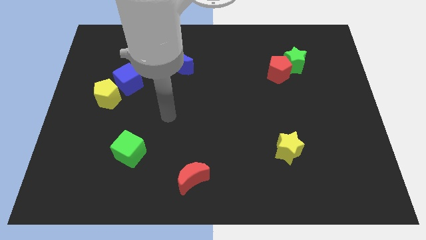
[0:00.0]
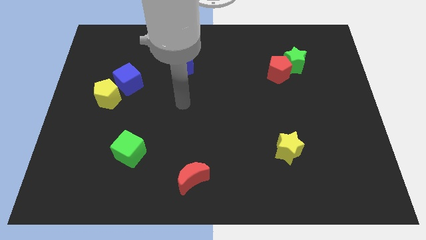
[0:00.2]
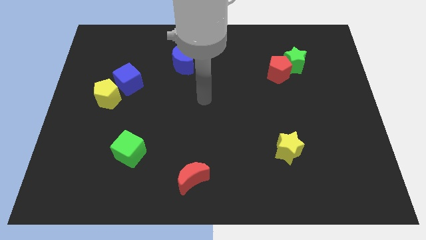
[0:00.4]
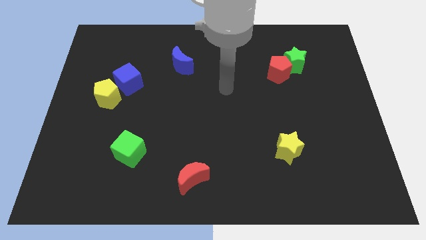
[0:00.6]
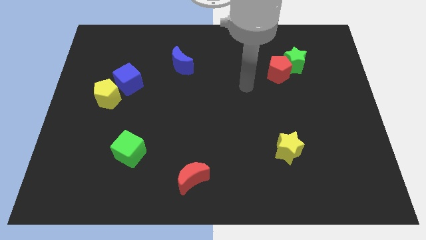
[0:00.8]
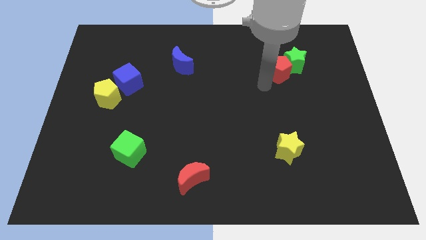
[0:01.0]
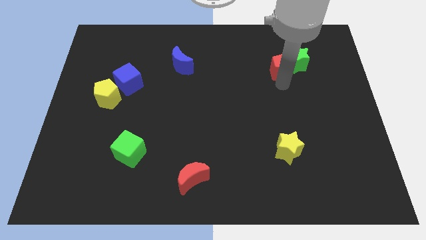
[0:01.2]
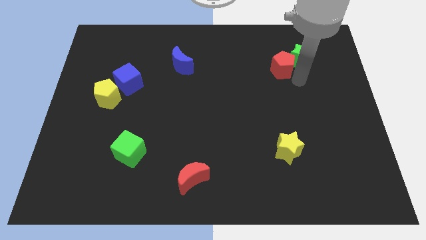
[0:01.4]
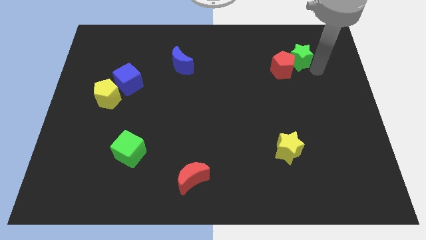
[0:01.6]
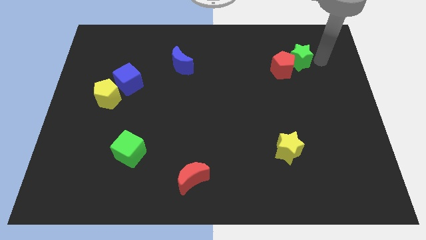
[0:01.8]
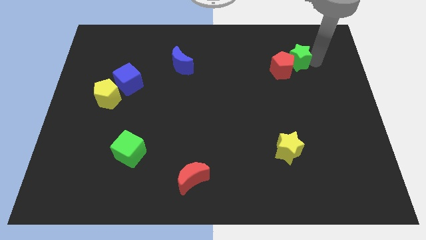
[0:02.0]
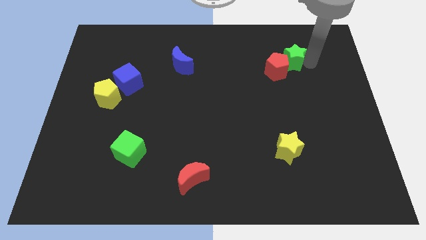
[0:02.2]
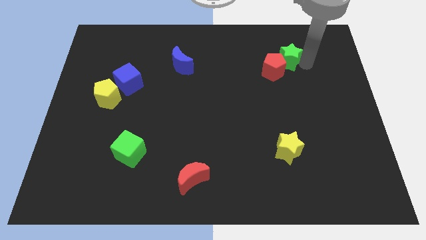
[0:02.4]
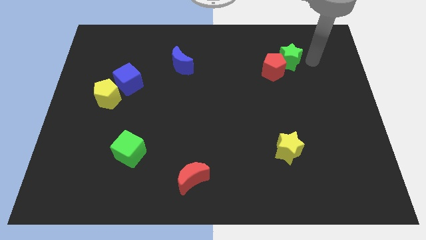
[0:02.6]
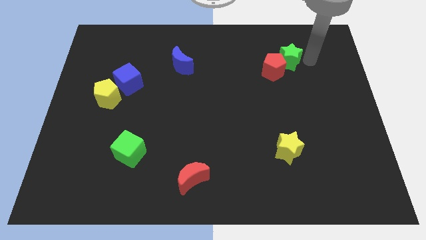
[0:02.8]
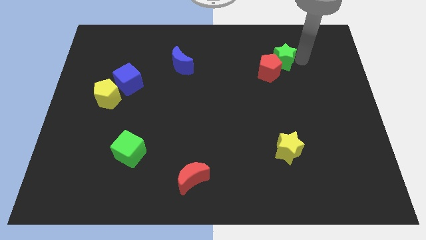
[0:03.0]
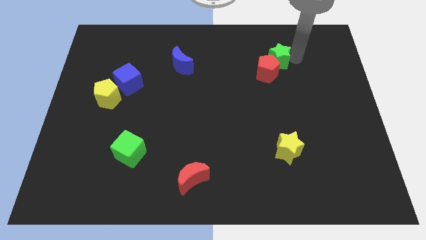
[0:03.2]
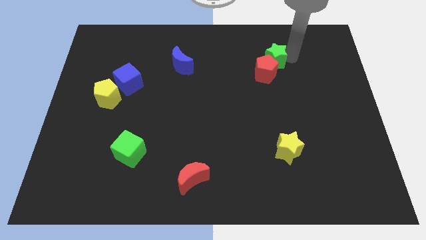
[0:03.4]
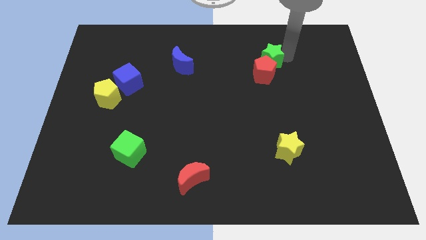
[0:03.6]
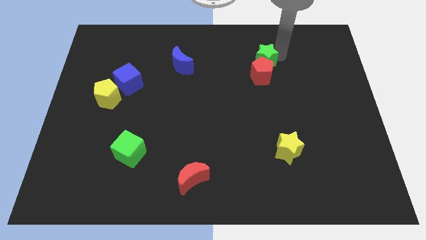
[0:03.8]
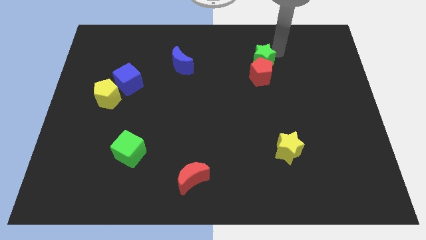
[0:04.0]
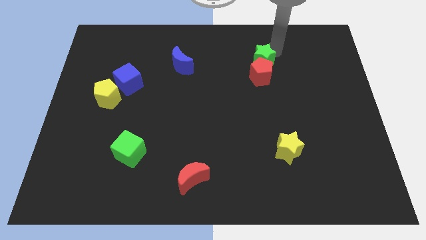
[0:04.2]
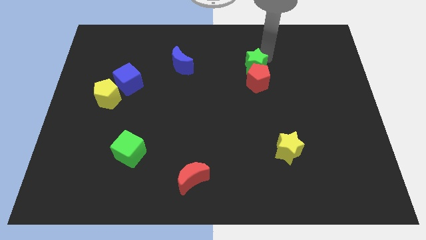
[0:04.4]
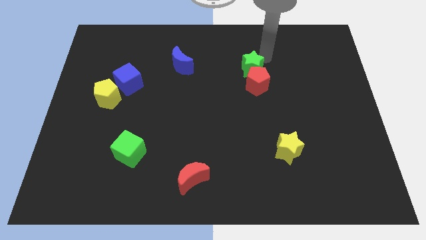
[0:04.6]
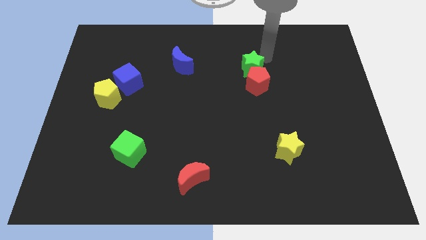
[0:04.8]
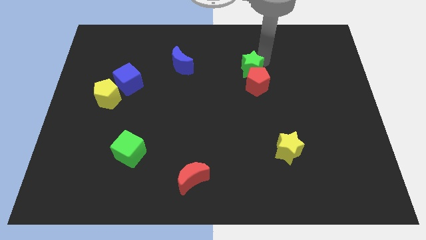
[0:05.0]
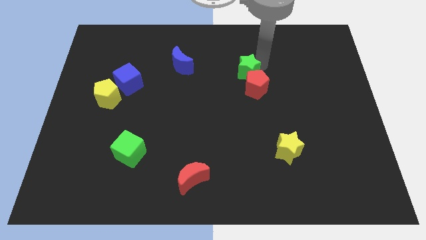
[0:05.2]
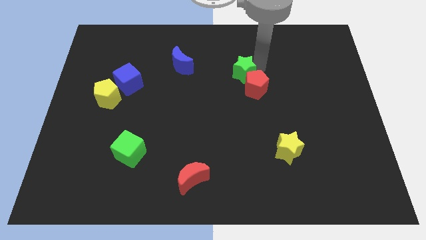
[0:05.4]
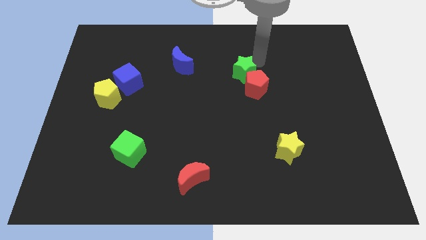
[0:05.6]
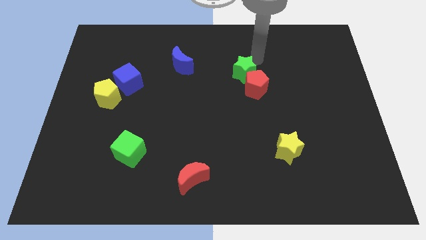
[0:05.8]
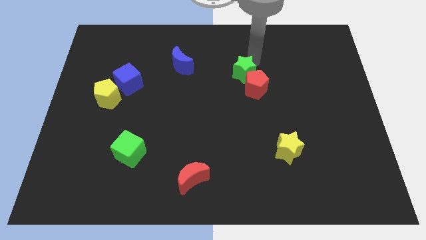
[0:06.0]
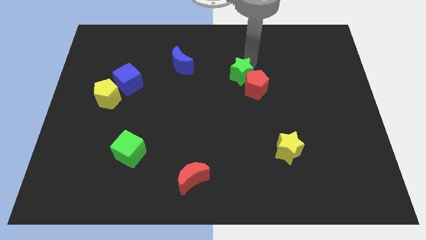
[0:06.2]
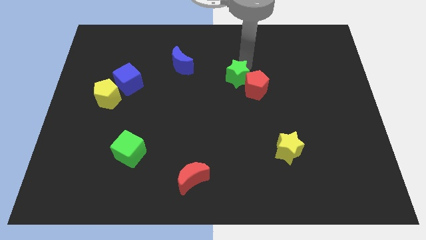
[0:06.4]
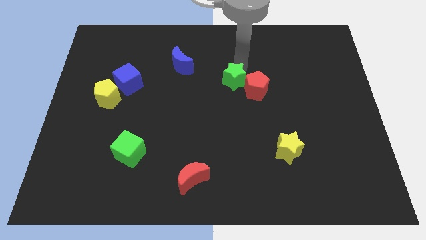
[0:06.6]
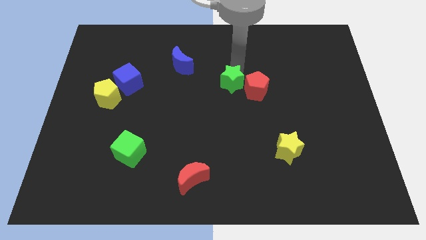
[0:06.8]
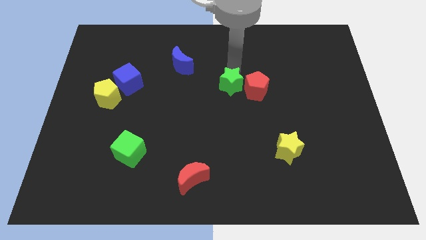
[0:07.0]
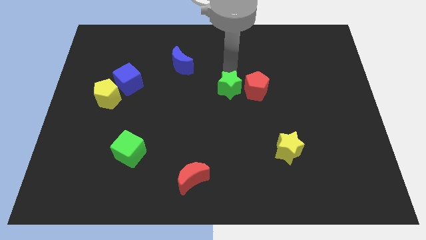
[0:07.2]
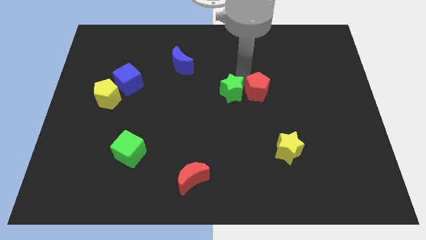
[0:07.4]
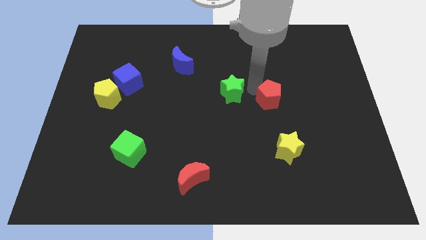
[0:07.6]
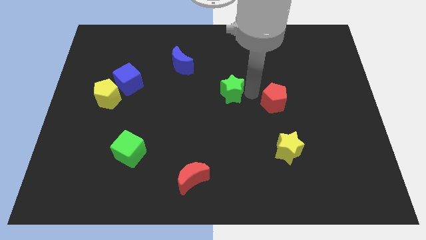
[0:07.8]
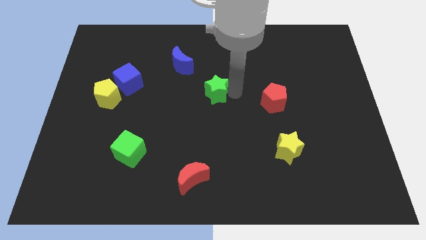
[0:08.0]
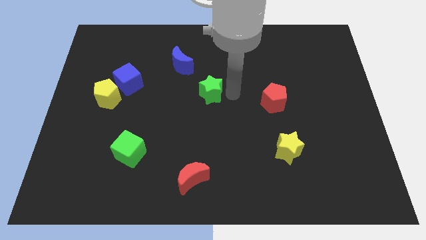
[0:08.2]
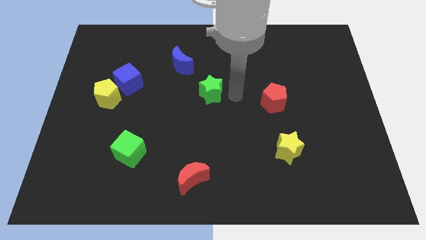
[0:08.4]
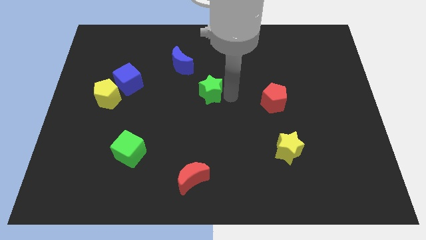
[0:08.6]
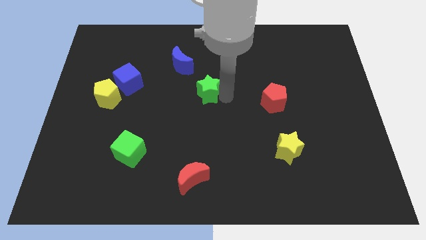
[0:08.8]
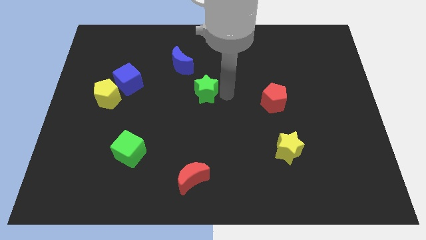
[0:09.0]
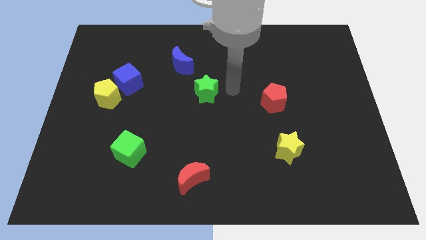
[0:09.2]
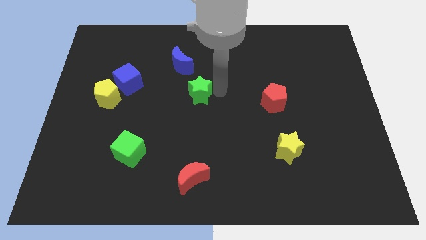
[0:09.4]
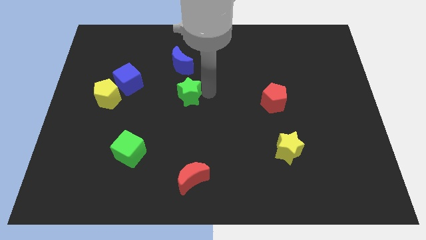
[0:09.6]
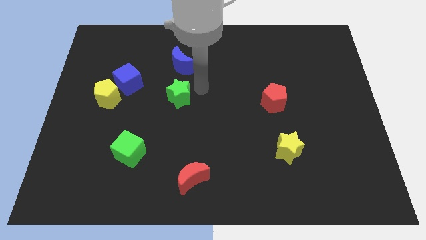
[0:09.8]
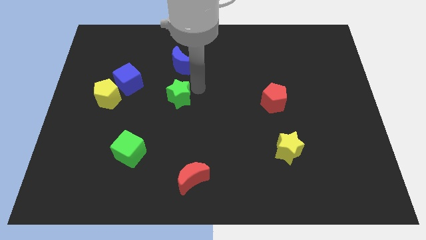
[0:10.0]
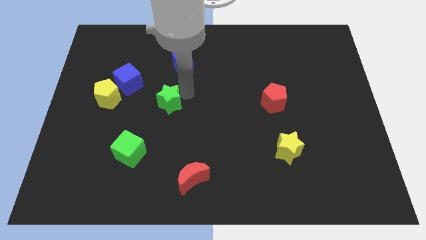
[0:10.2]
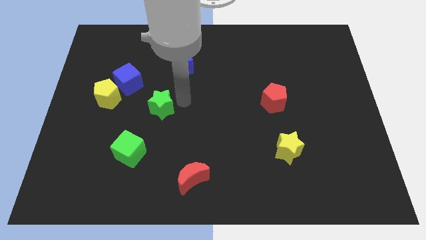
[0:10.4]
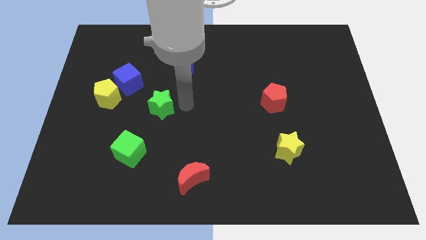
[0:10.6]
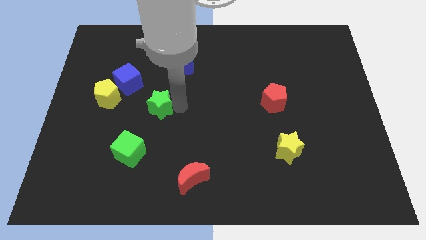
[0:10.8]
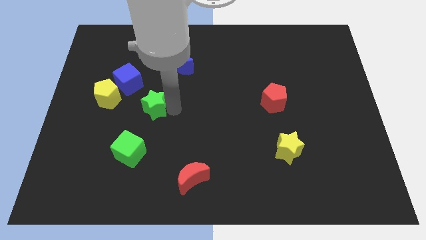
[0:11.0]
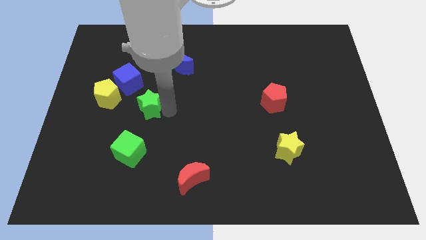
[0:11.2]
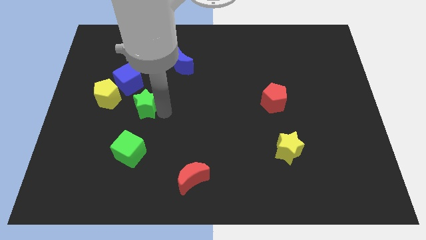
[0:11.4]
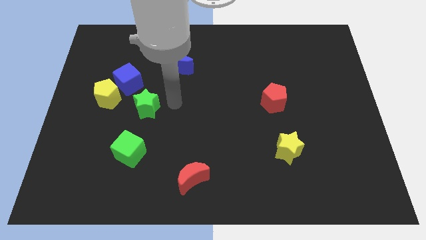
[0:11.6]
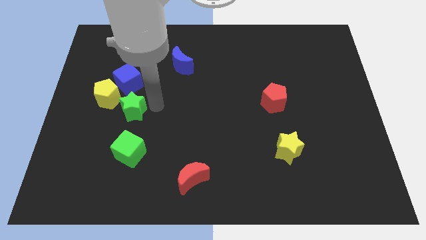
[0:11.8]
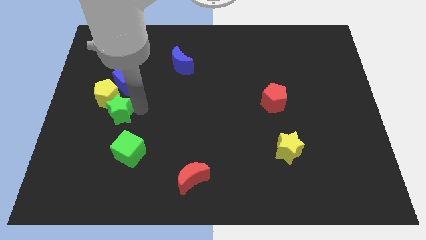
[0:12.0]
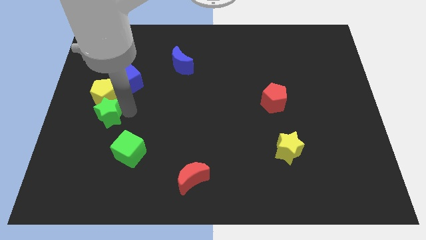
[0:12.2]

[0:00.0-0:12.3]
move the green star to the bottom left of the blue cube

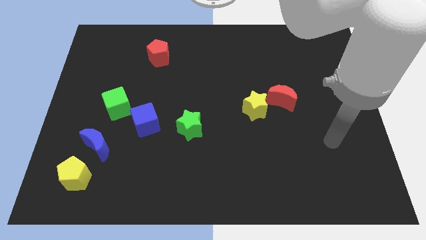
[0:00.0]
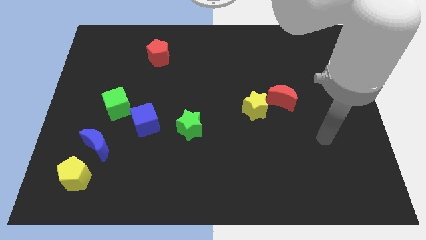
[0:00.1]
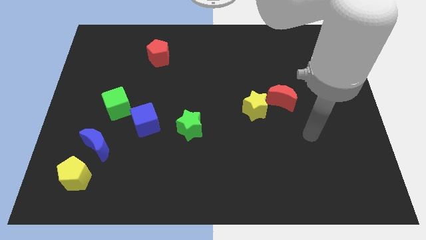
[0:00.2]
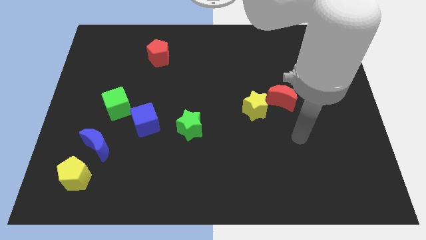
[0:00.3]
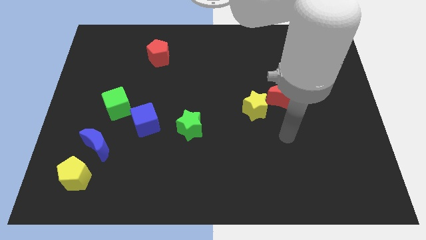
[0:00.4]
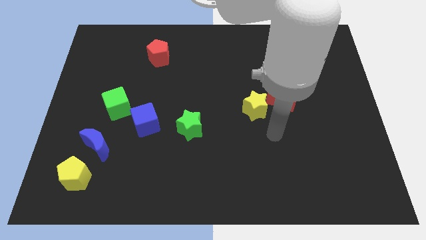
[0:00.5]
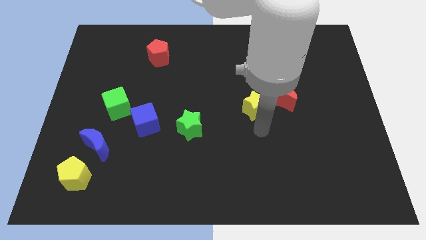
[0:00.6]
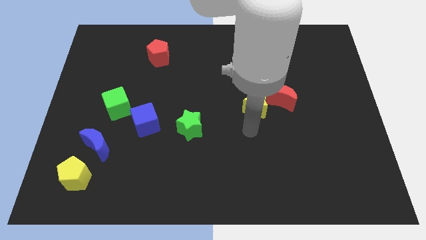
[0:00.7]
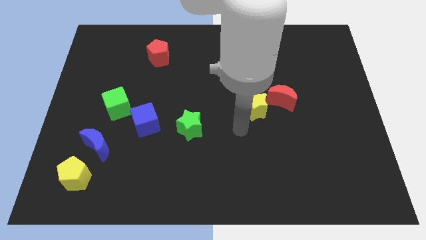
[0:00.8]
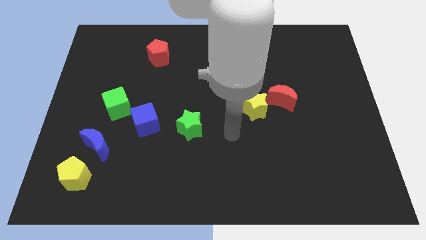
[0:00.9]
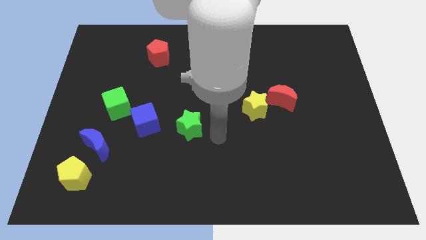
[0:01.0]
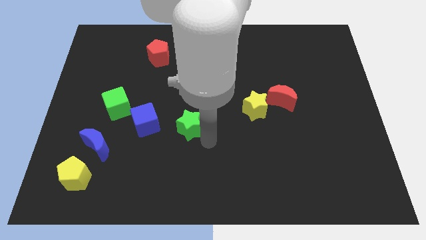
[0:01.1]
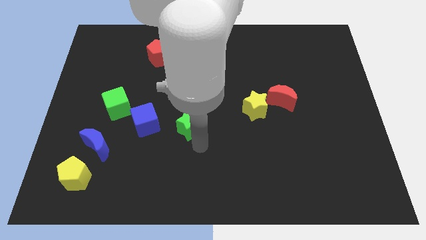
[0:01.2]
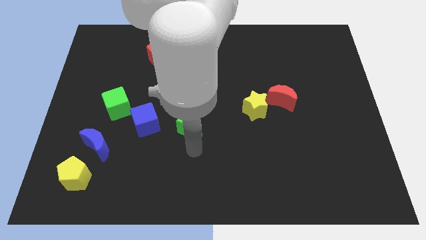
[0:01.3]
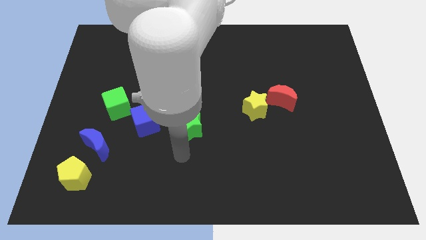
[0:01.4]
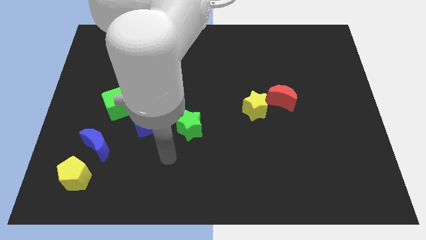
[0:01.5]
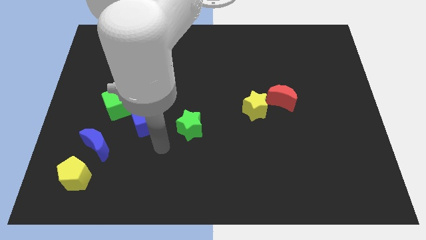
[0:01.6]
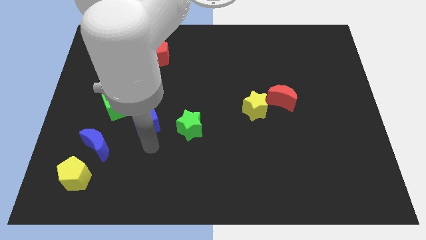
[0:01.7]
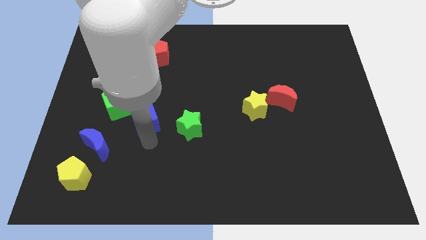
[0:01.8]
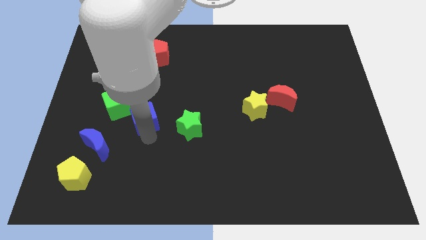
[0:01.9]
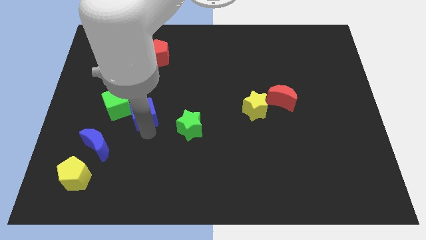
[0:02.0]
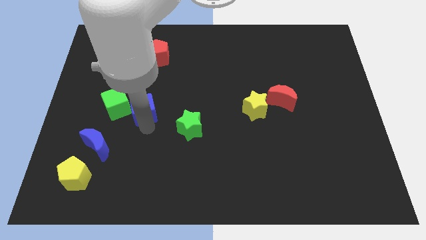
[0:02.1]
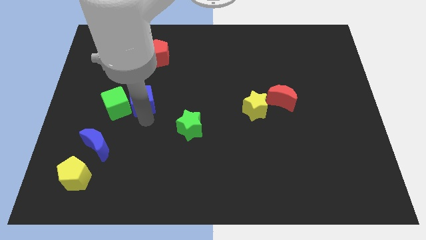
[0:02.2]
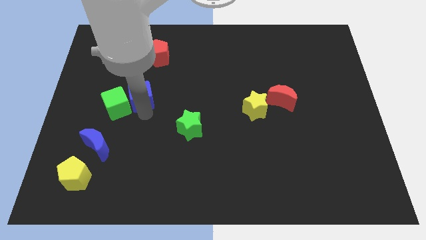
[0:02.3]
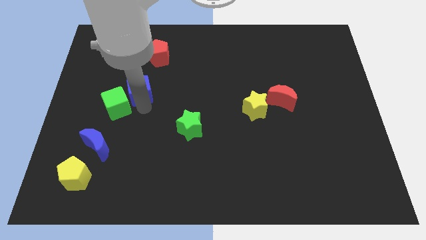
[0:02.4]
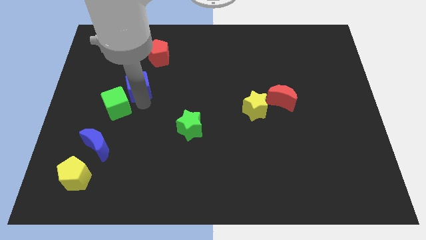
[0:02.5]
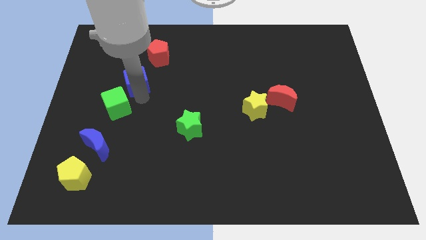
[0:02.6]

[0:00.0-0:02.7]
put the blue cube diagonally down and to the left of the red pentagon
